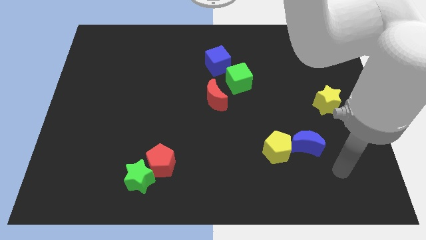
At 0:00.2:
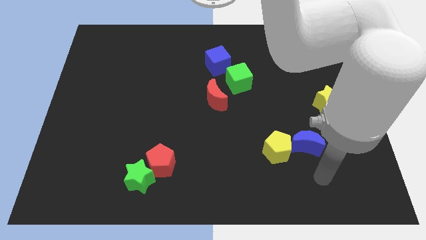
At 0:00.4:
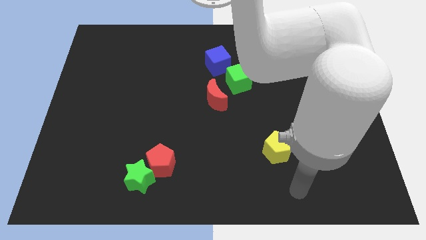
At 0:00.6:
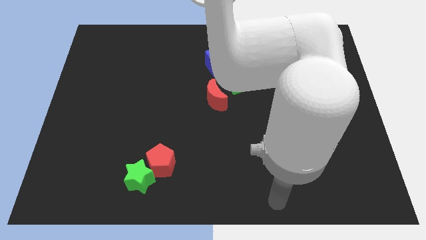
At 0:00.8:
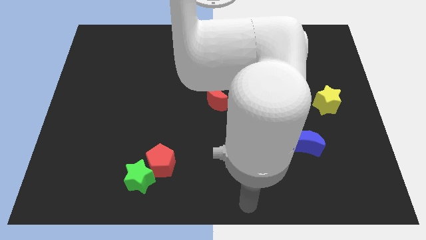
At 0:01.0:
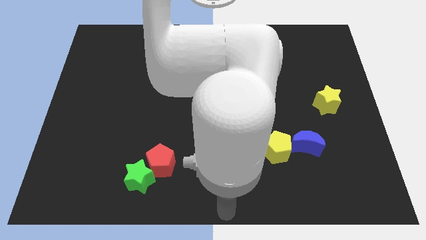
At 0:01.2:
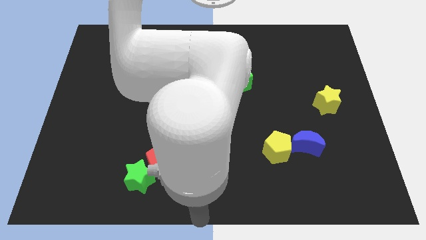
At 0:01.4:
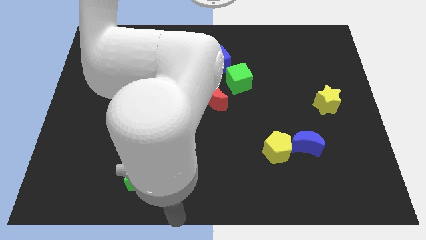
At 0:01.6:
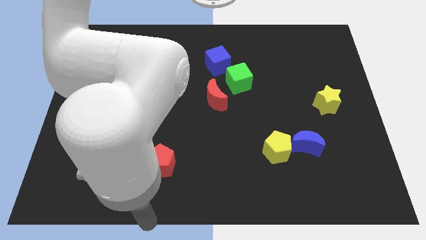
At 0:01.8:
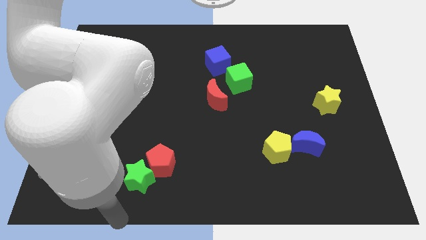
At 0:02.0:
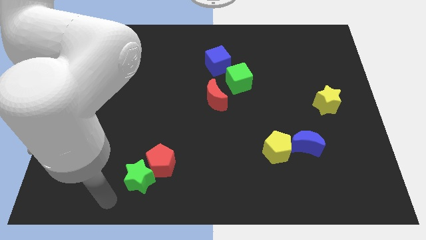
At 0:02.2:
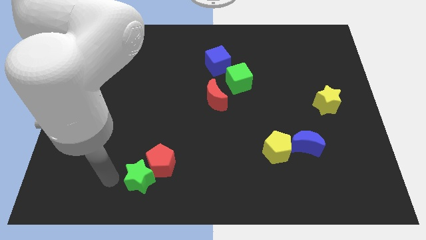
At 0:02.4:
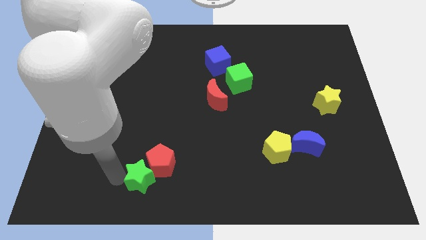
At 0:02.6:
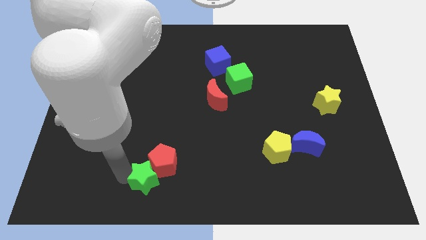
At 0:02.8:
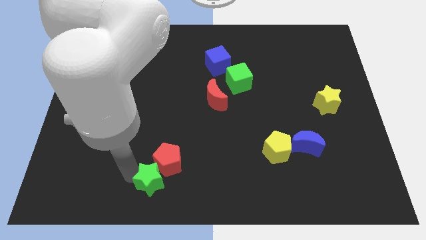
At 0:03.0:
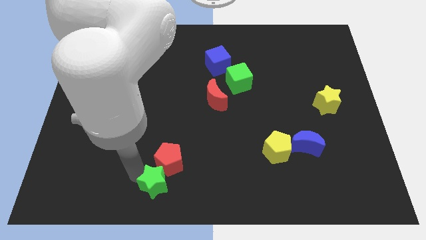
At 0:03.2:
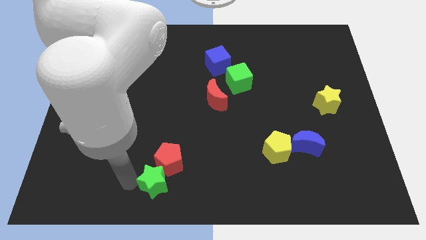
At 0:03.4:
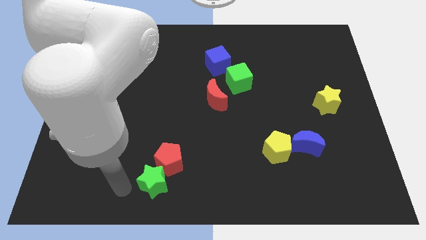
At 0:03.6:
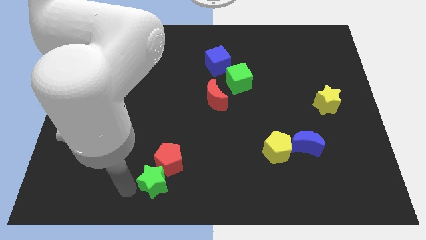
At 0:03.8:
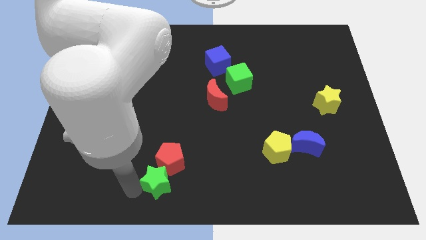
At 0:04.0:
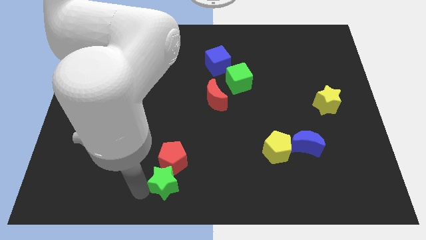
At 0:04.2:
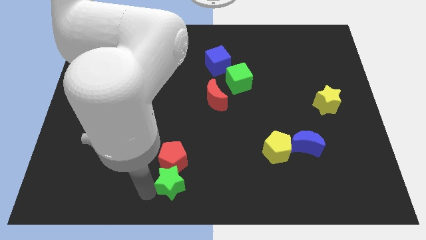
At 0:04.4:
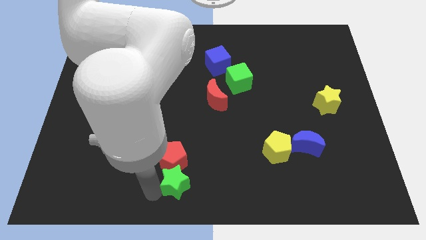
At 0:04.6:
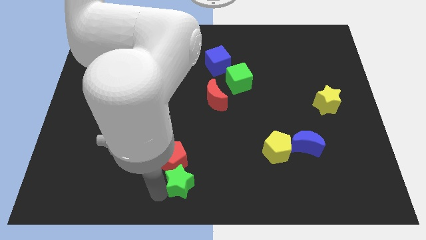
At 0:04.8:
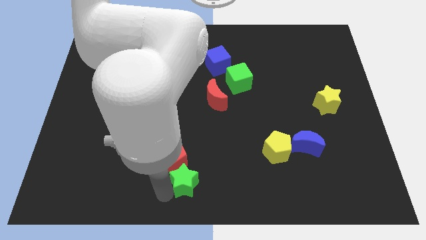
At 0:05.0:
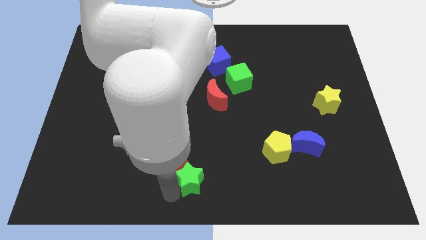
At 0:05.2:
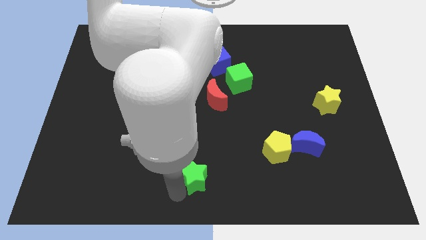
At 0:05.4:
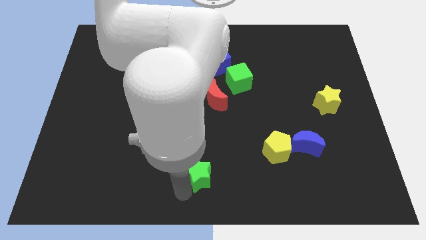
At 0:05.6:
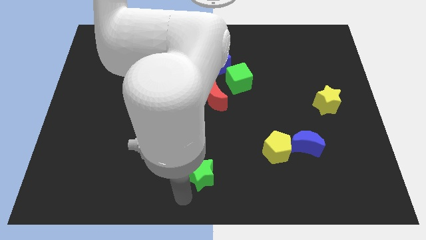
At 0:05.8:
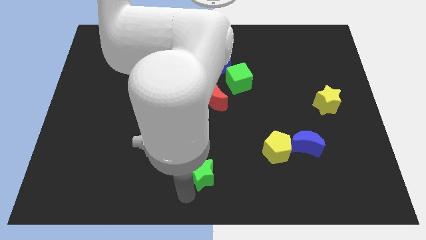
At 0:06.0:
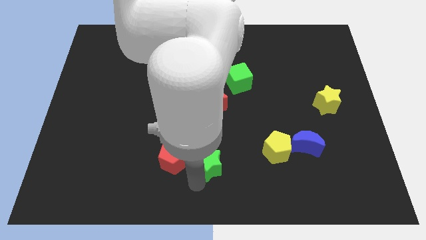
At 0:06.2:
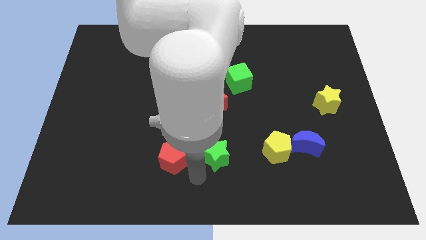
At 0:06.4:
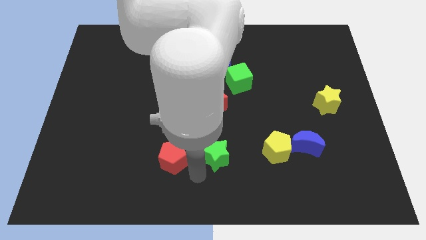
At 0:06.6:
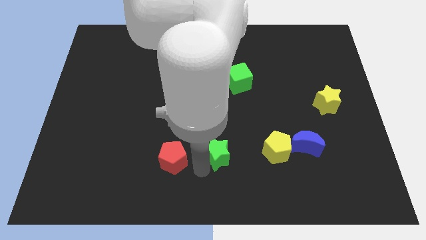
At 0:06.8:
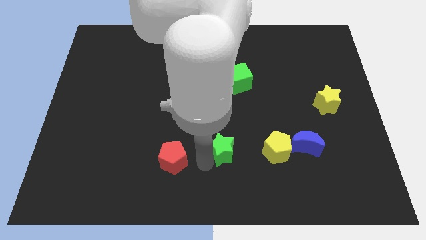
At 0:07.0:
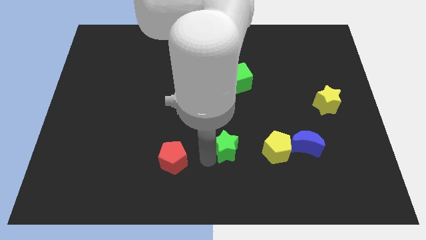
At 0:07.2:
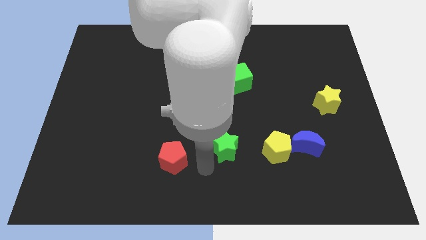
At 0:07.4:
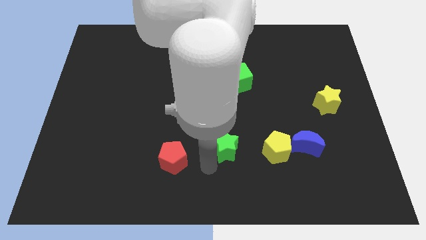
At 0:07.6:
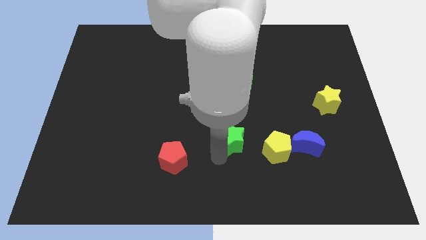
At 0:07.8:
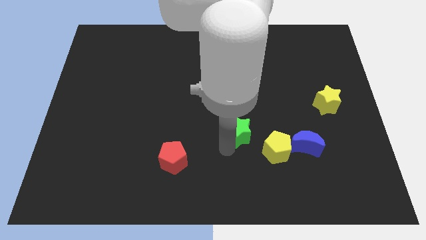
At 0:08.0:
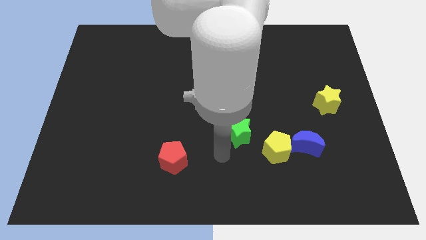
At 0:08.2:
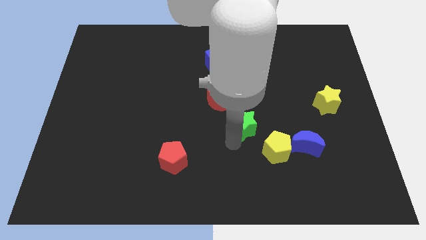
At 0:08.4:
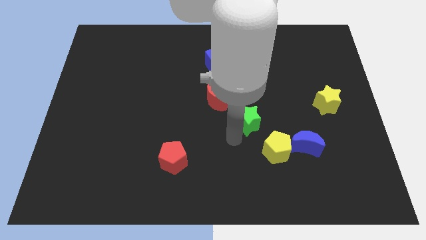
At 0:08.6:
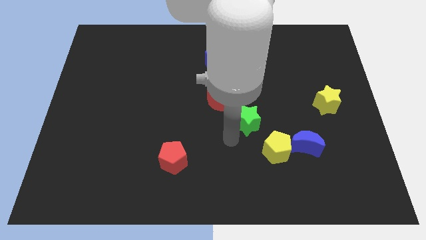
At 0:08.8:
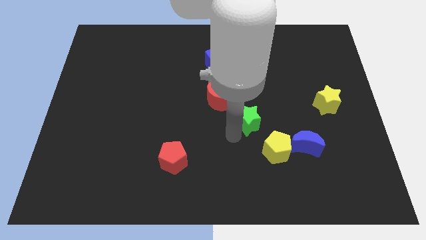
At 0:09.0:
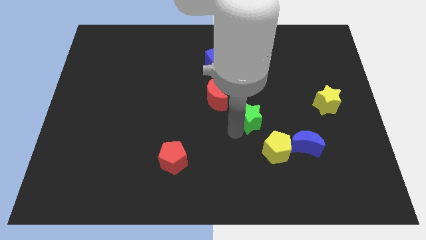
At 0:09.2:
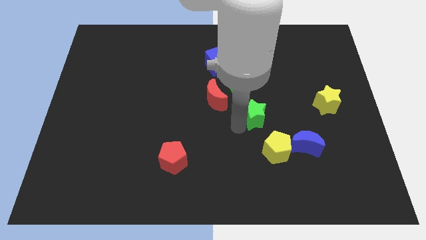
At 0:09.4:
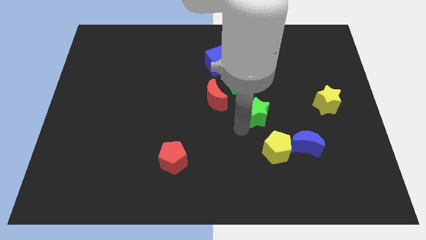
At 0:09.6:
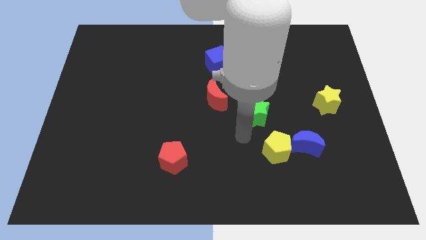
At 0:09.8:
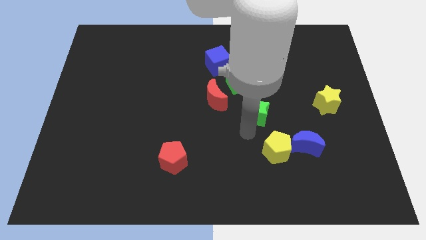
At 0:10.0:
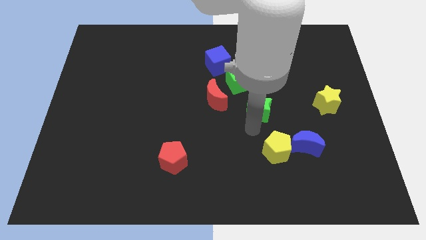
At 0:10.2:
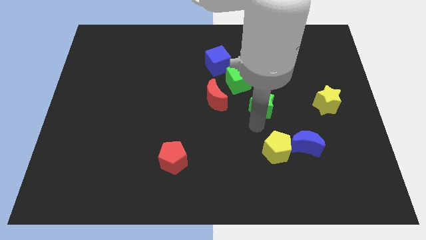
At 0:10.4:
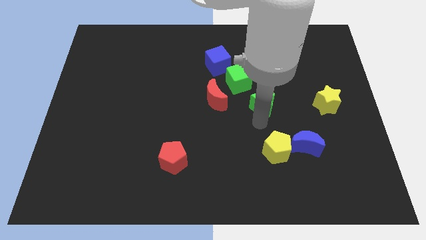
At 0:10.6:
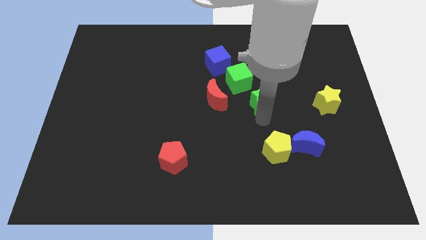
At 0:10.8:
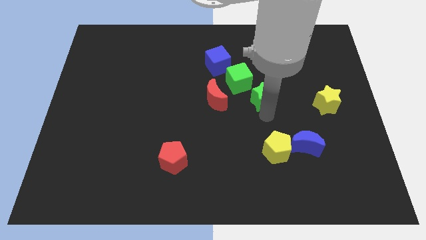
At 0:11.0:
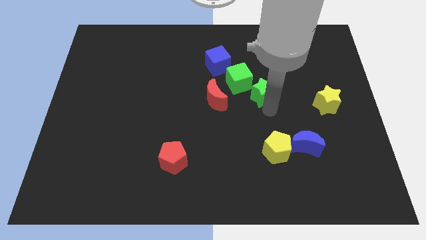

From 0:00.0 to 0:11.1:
push the green star to the right of the green cube
